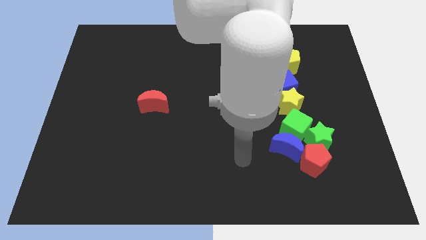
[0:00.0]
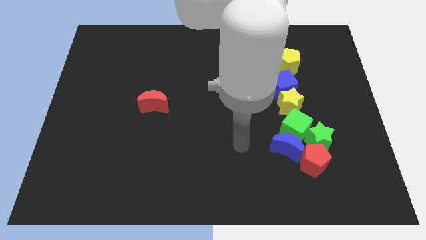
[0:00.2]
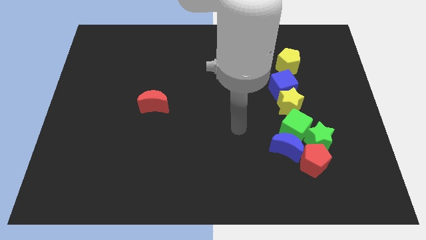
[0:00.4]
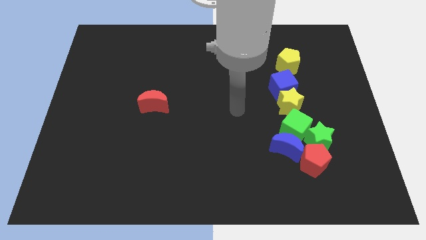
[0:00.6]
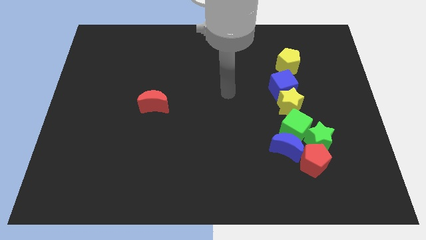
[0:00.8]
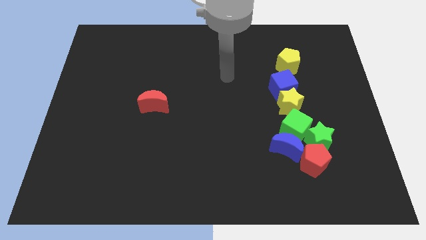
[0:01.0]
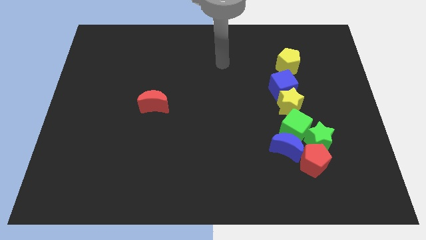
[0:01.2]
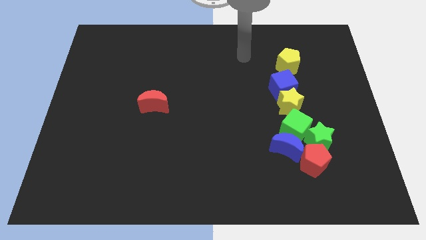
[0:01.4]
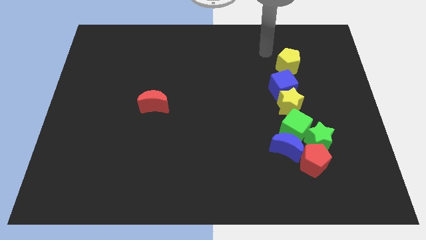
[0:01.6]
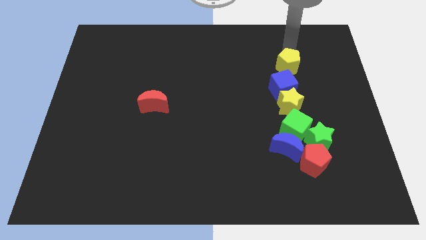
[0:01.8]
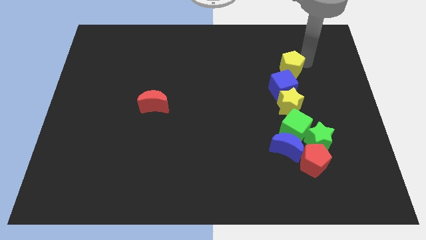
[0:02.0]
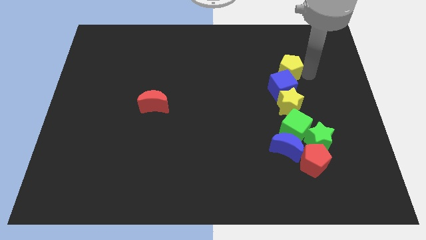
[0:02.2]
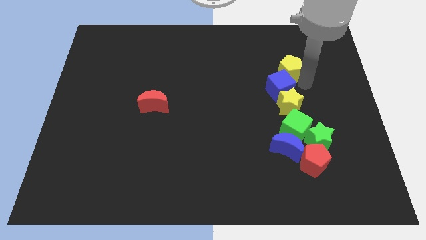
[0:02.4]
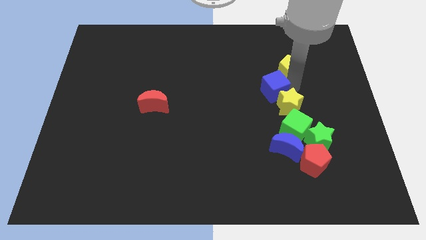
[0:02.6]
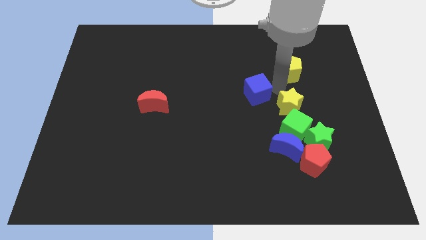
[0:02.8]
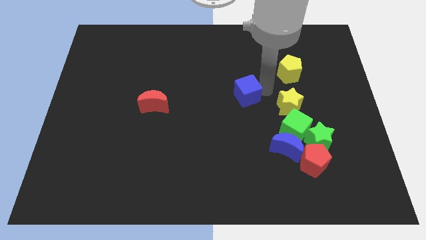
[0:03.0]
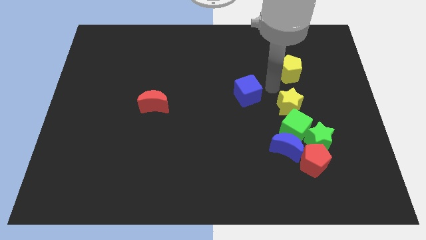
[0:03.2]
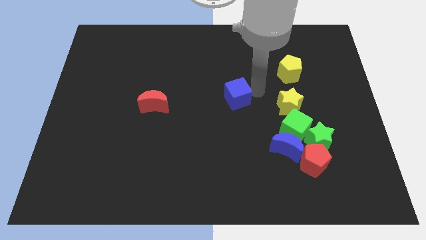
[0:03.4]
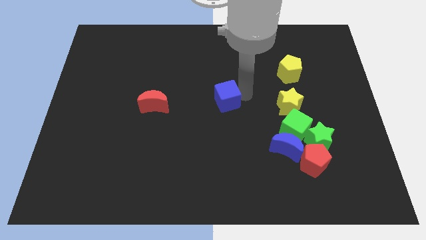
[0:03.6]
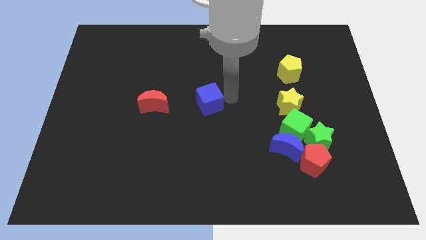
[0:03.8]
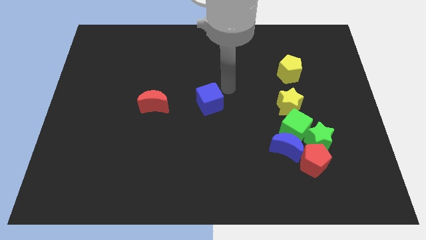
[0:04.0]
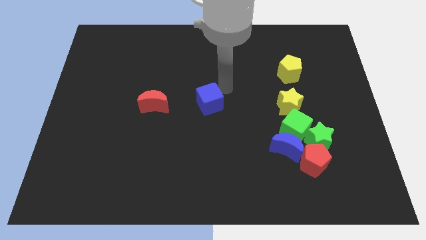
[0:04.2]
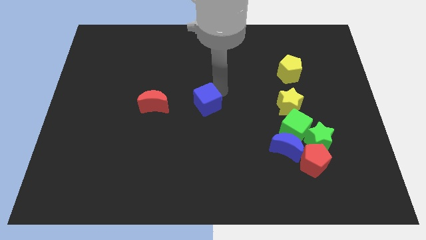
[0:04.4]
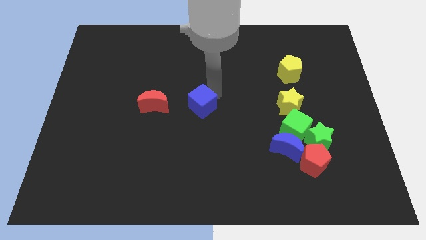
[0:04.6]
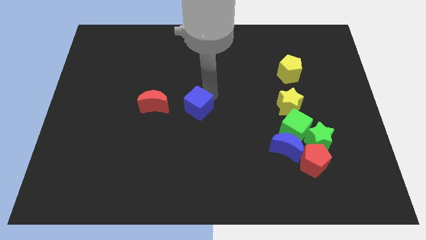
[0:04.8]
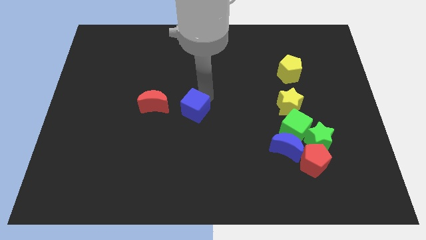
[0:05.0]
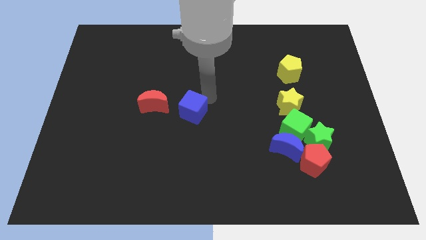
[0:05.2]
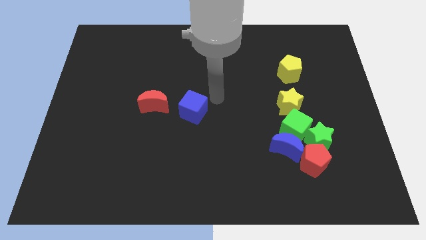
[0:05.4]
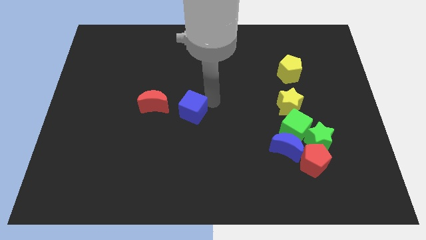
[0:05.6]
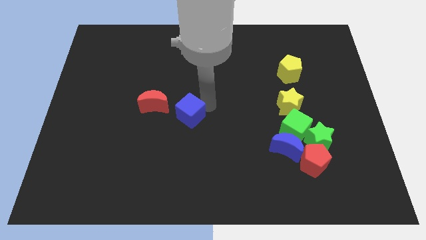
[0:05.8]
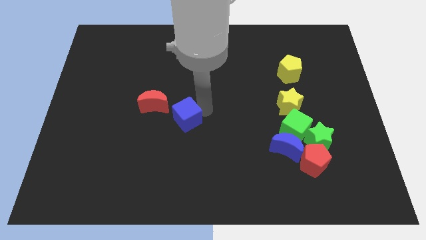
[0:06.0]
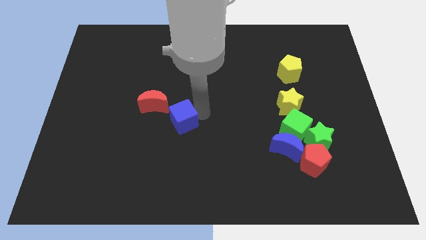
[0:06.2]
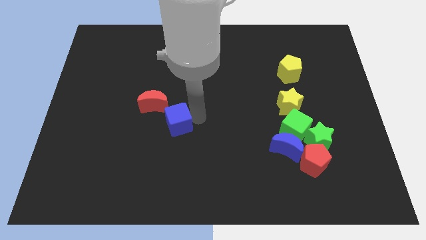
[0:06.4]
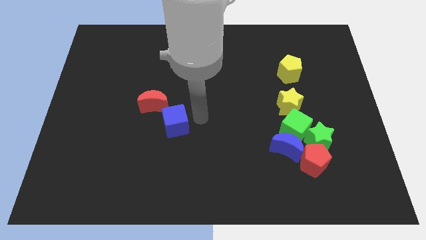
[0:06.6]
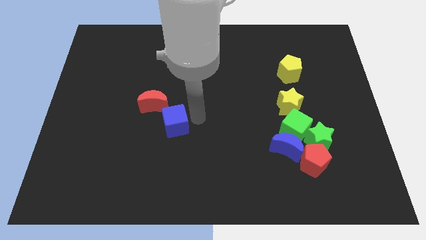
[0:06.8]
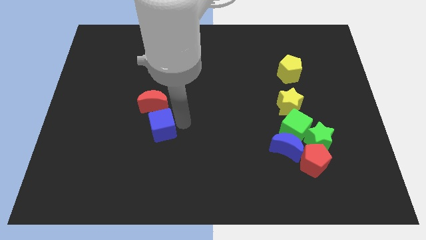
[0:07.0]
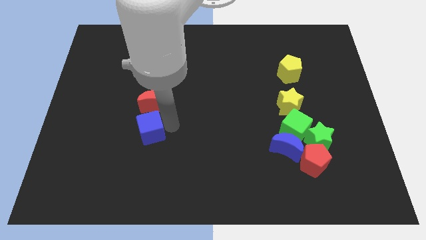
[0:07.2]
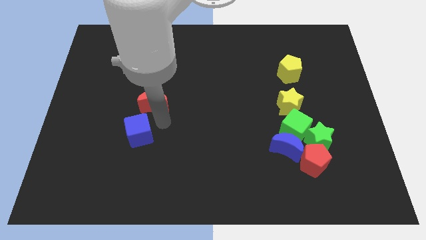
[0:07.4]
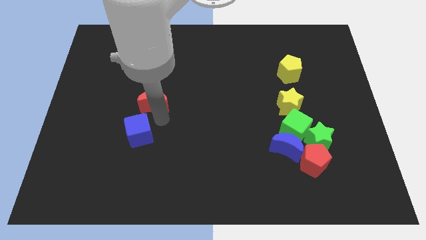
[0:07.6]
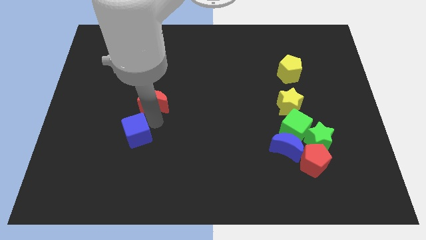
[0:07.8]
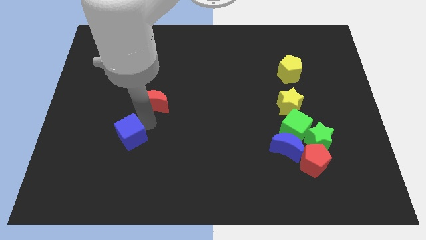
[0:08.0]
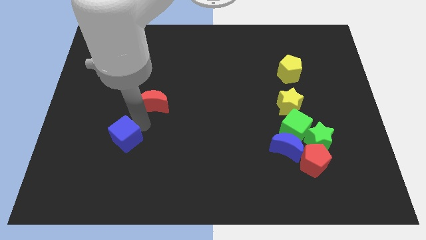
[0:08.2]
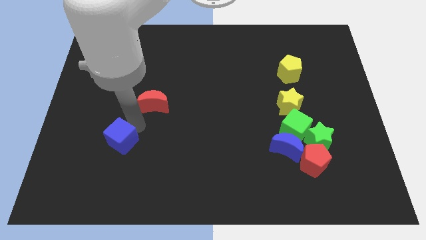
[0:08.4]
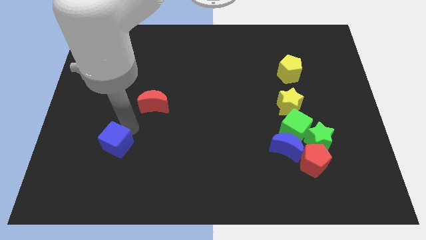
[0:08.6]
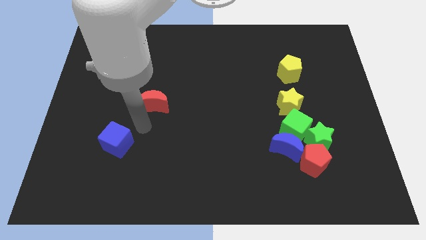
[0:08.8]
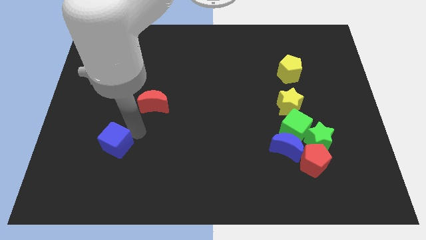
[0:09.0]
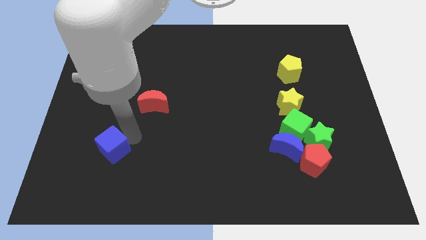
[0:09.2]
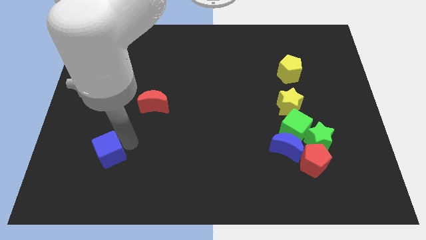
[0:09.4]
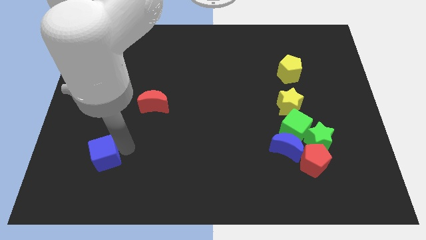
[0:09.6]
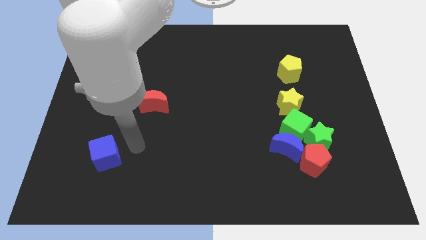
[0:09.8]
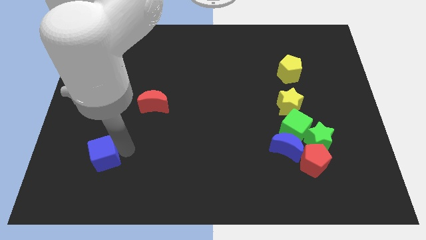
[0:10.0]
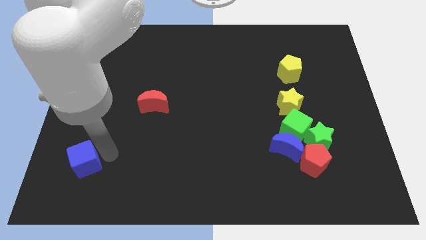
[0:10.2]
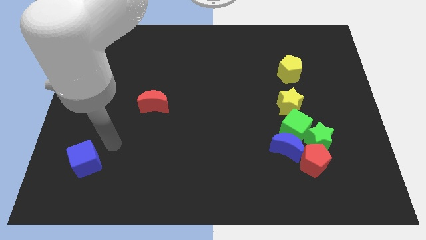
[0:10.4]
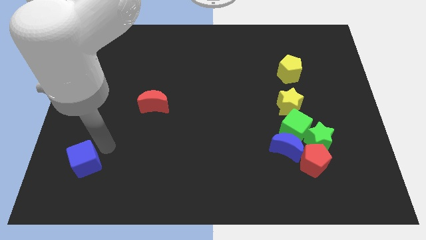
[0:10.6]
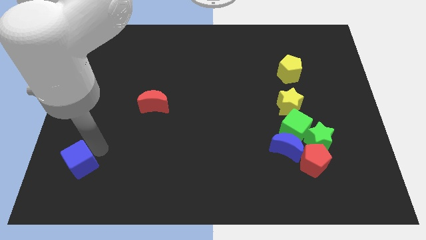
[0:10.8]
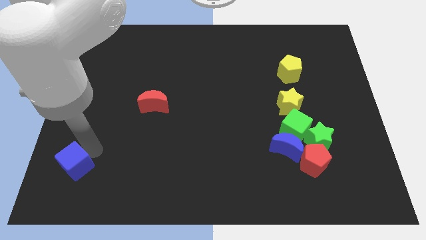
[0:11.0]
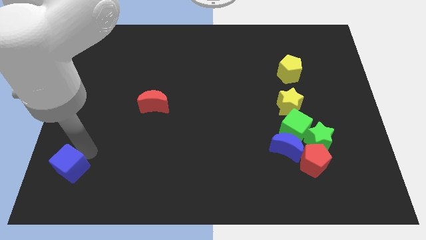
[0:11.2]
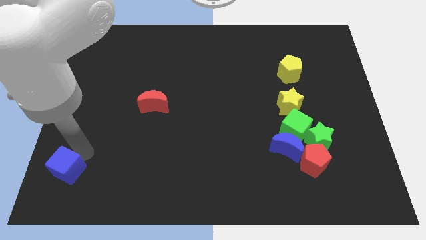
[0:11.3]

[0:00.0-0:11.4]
put the blue cube to the bottom left corner
